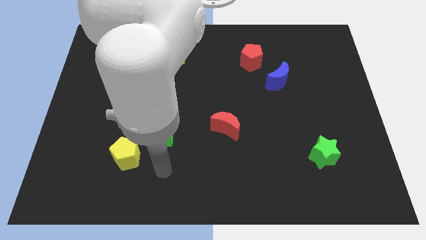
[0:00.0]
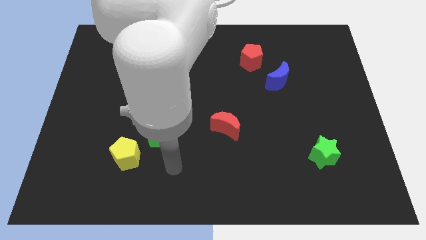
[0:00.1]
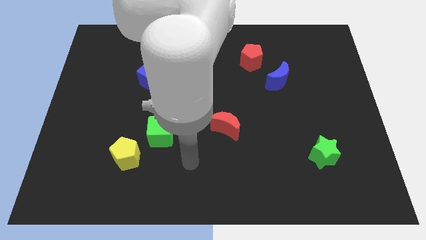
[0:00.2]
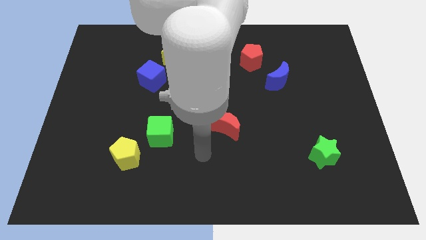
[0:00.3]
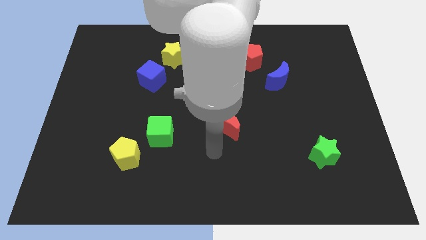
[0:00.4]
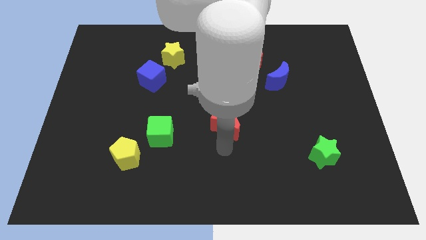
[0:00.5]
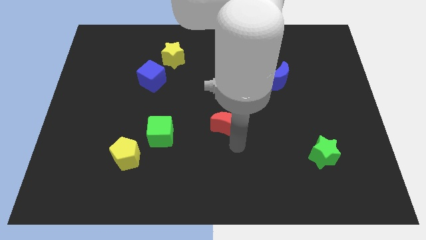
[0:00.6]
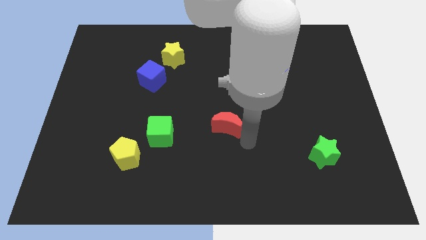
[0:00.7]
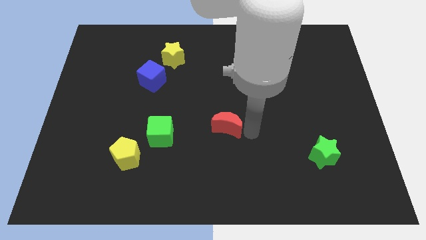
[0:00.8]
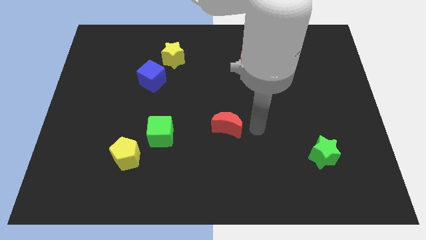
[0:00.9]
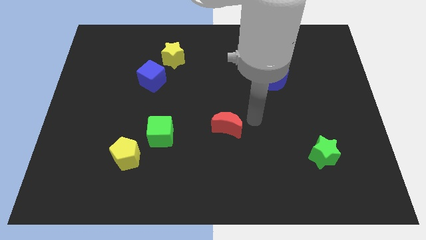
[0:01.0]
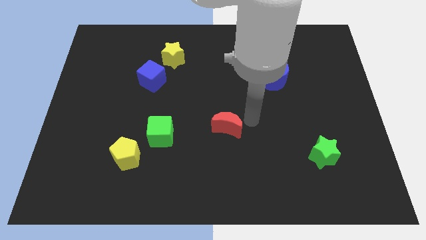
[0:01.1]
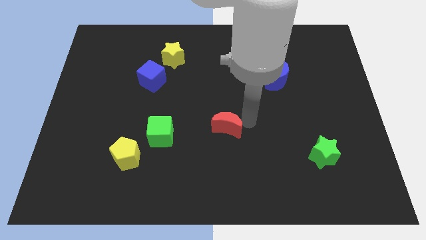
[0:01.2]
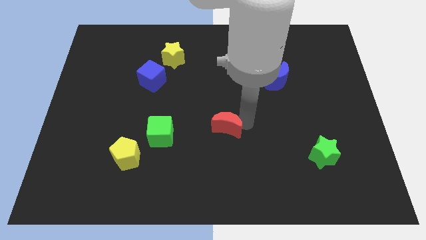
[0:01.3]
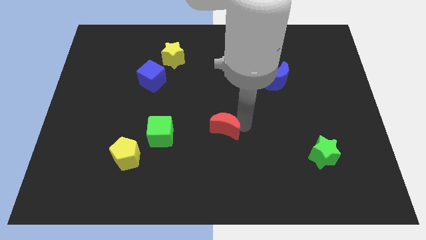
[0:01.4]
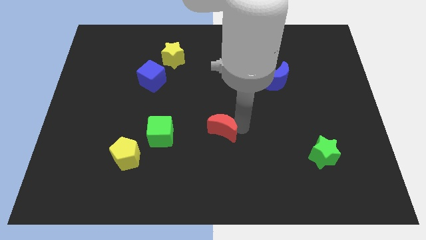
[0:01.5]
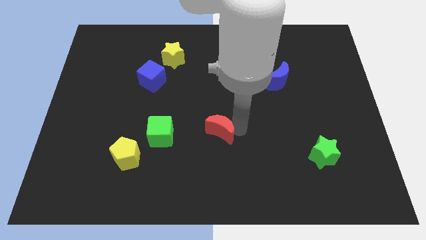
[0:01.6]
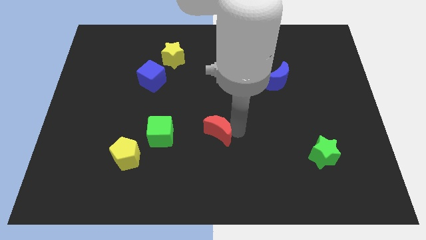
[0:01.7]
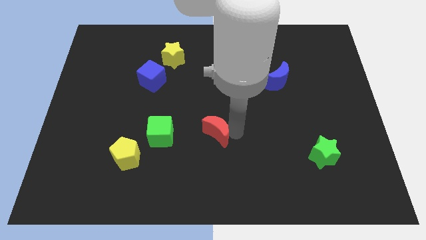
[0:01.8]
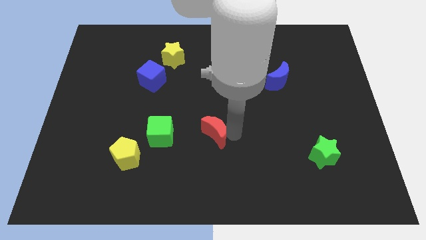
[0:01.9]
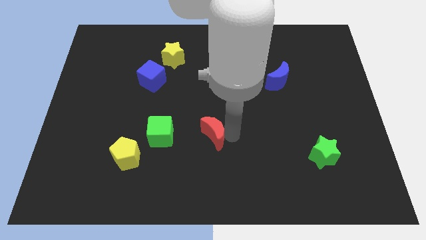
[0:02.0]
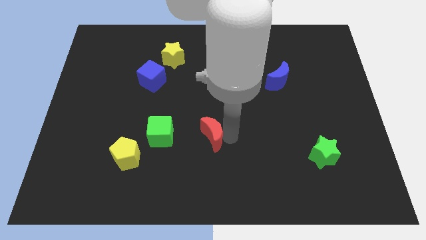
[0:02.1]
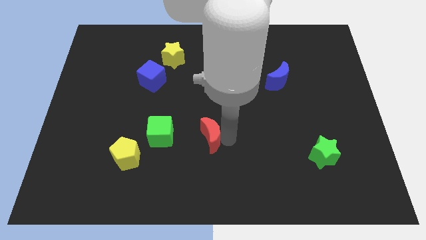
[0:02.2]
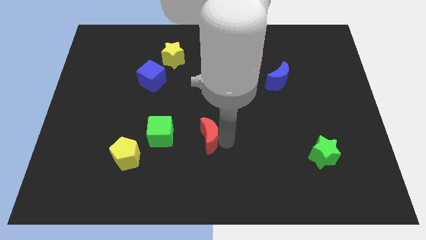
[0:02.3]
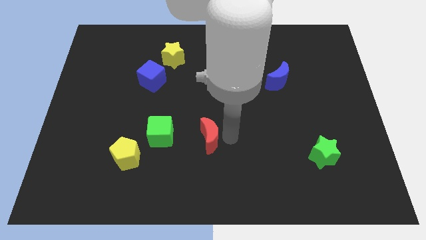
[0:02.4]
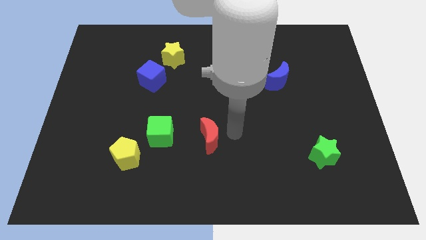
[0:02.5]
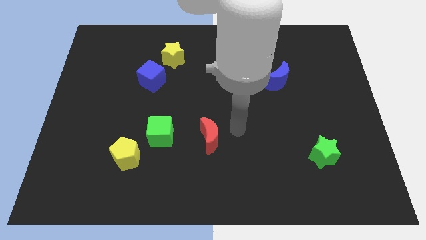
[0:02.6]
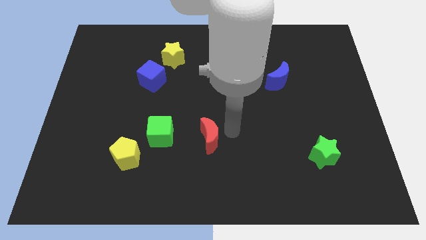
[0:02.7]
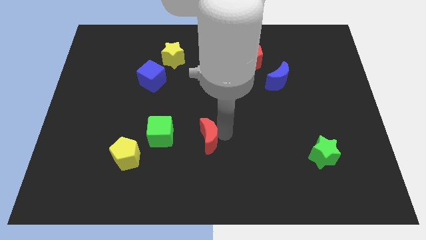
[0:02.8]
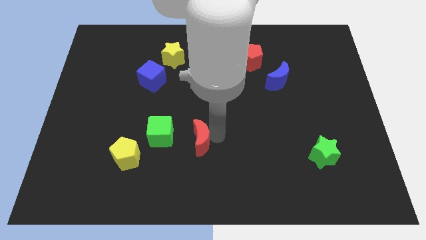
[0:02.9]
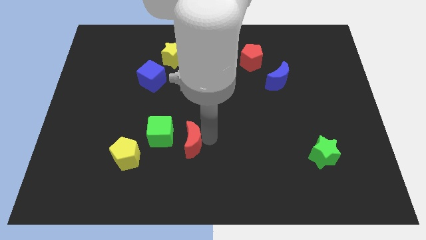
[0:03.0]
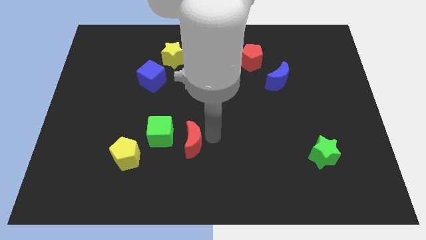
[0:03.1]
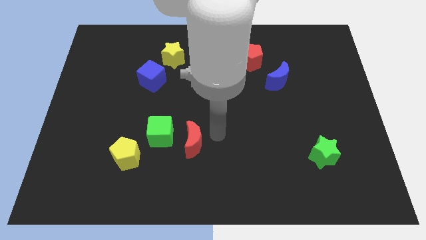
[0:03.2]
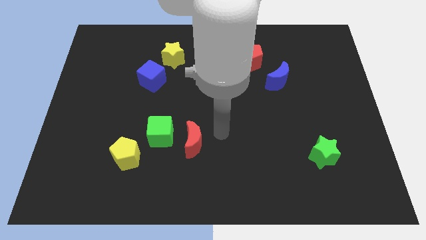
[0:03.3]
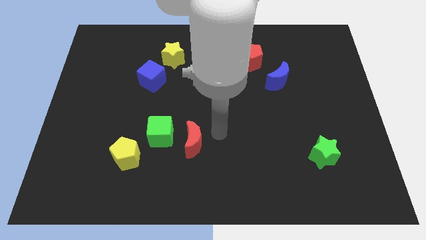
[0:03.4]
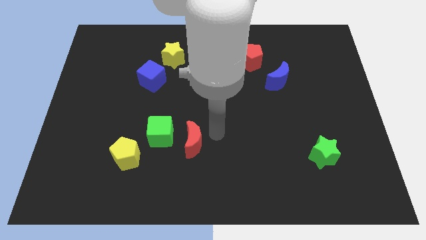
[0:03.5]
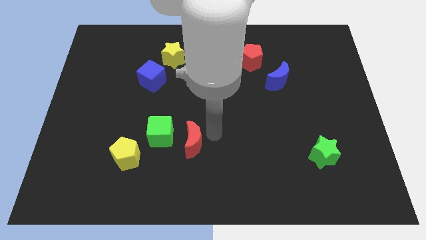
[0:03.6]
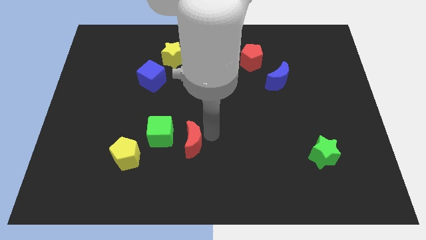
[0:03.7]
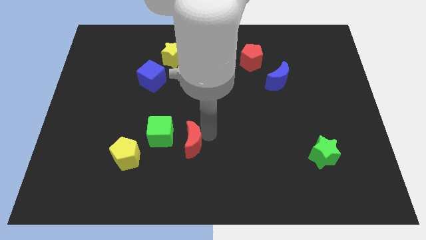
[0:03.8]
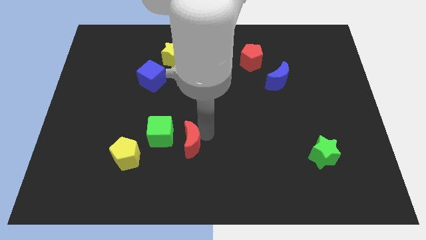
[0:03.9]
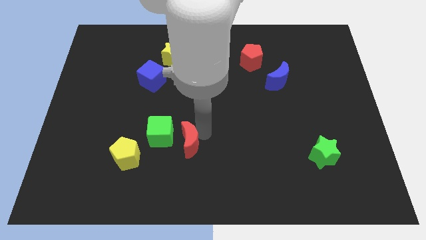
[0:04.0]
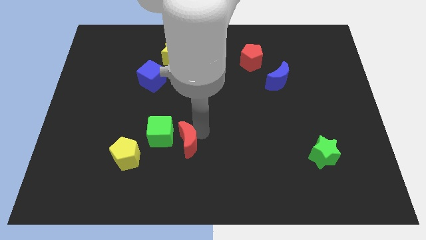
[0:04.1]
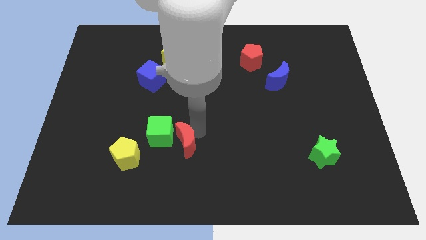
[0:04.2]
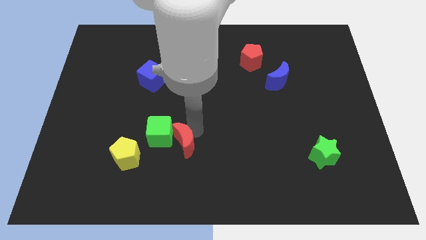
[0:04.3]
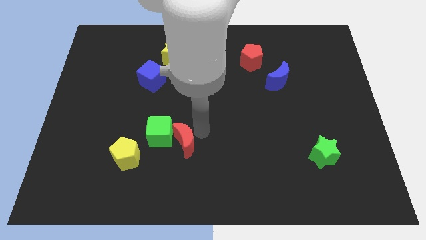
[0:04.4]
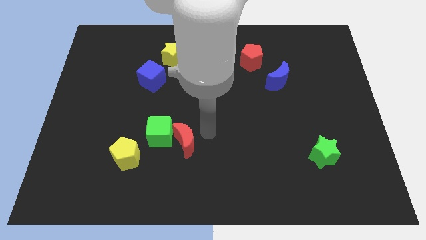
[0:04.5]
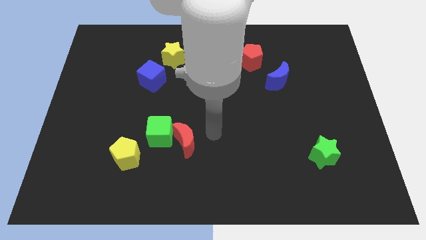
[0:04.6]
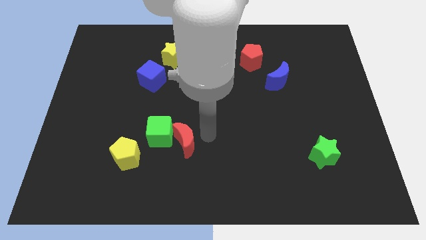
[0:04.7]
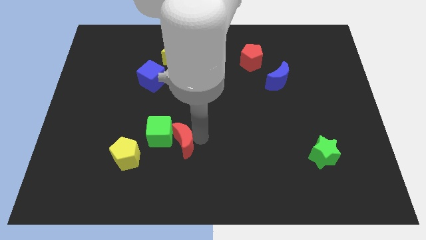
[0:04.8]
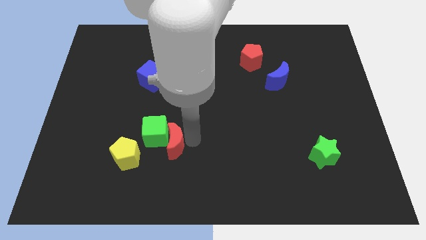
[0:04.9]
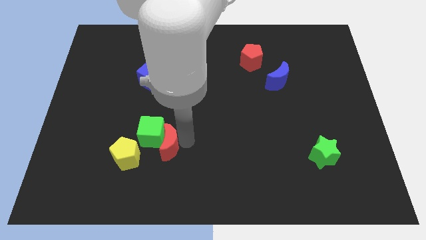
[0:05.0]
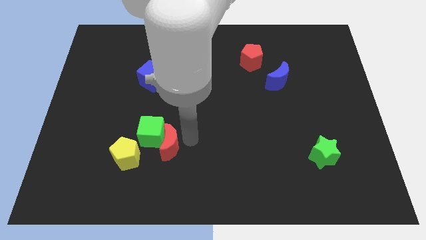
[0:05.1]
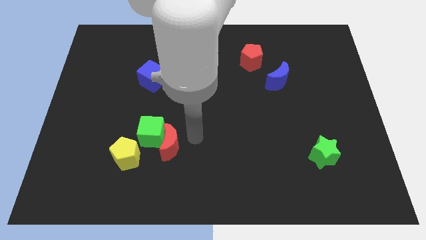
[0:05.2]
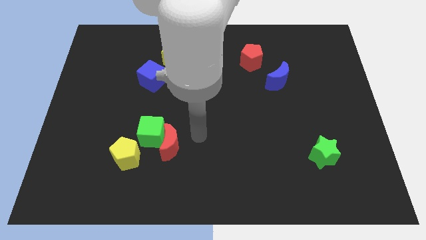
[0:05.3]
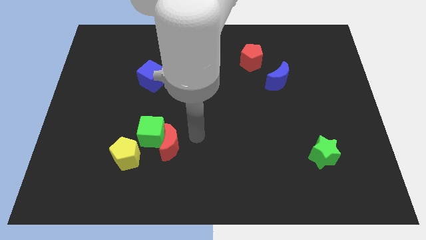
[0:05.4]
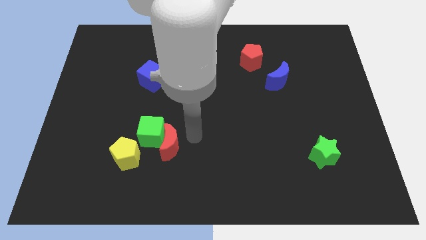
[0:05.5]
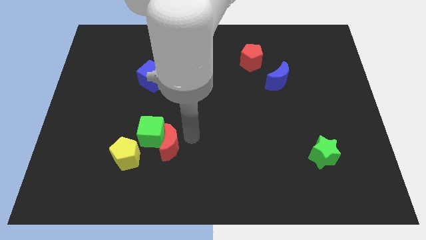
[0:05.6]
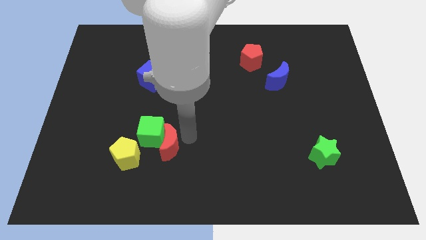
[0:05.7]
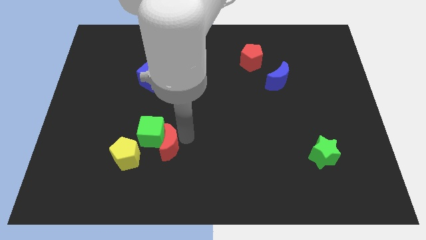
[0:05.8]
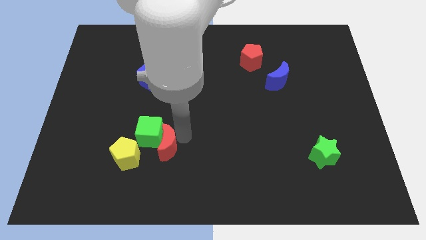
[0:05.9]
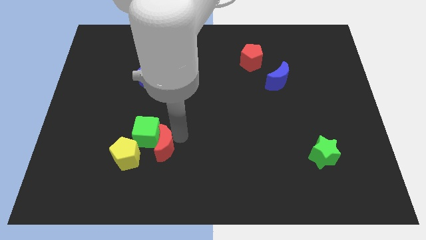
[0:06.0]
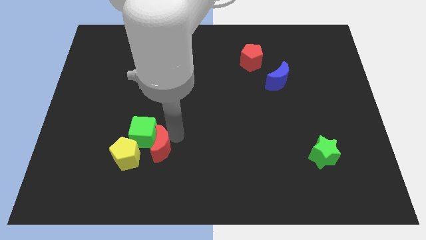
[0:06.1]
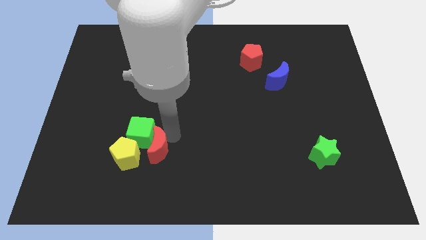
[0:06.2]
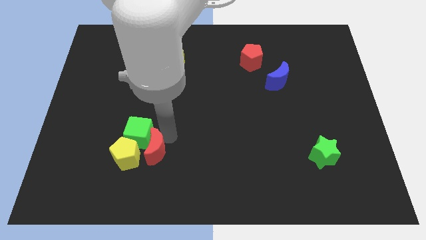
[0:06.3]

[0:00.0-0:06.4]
slide the red moon close to the yellow pentagon
